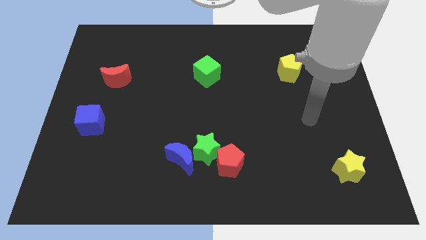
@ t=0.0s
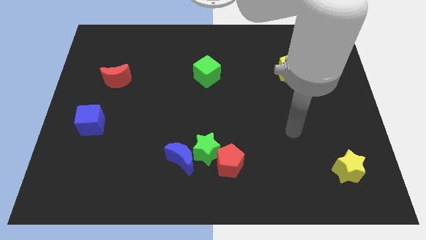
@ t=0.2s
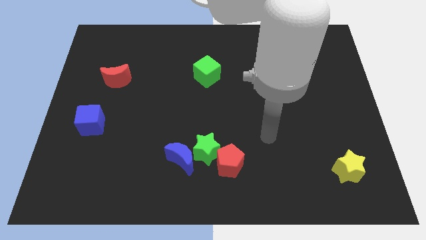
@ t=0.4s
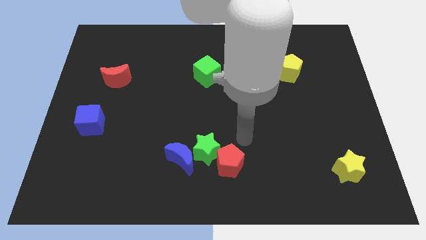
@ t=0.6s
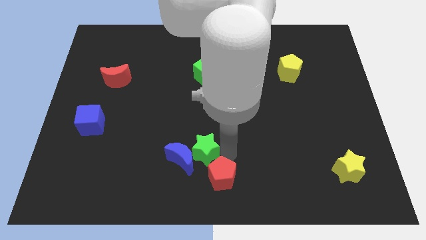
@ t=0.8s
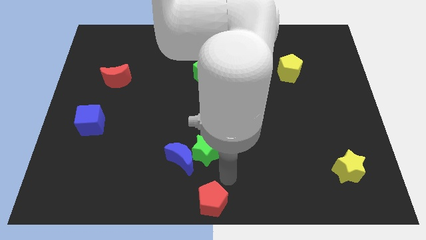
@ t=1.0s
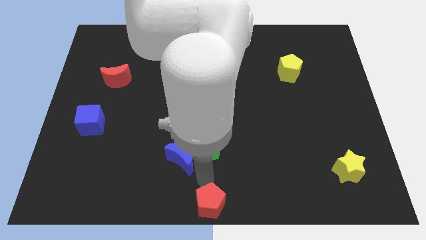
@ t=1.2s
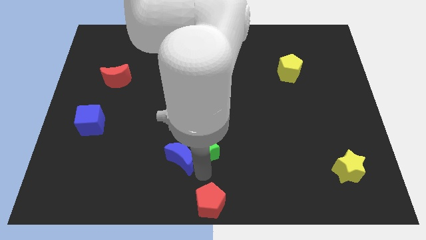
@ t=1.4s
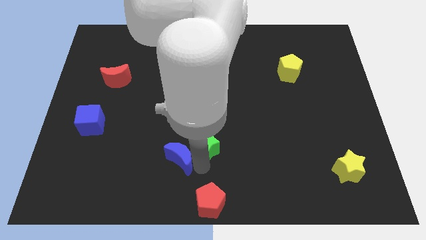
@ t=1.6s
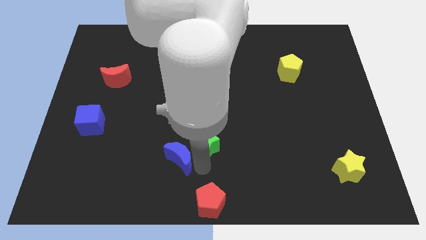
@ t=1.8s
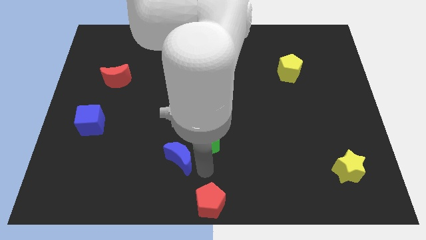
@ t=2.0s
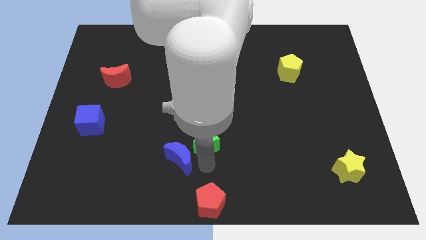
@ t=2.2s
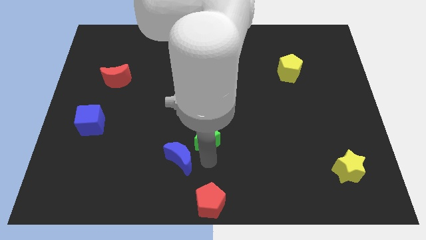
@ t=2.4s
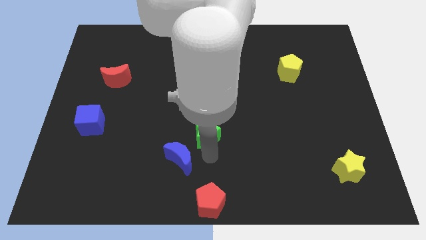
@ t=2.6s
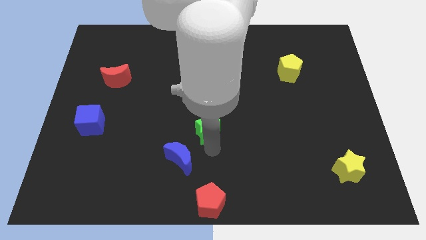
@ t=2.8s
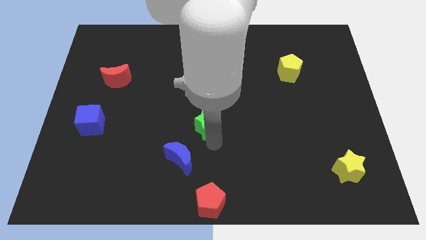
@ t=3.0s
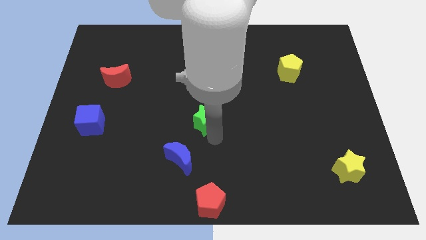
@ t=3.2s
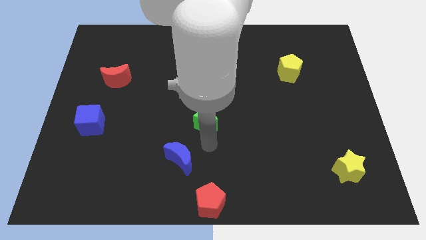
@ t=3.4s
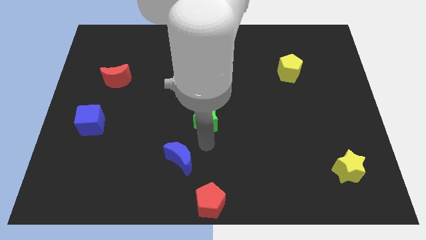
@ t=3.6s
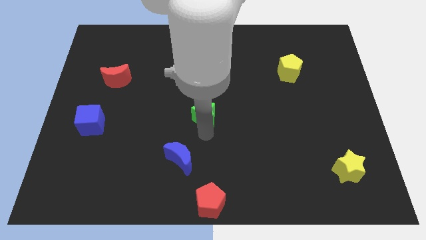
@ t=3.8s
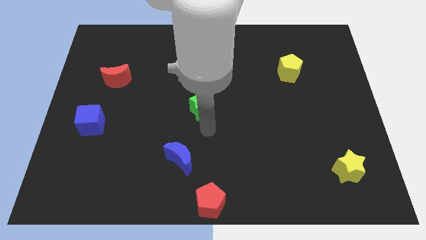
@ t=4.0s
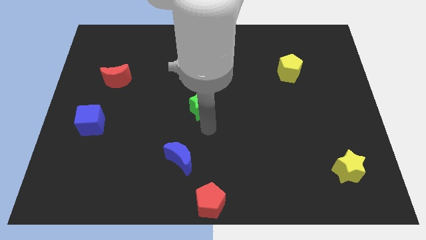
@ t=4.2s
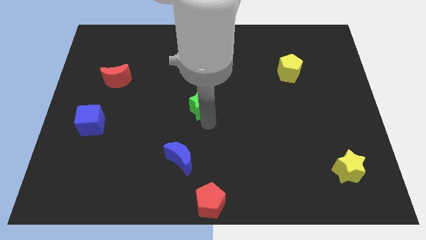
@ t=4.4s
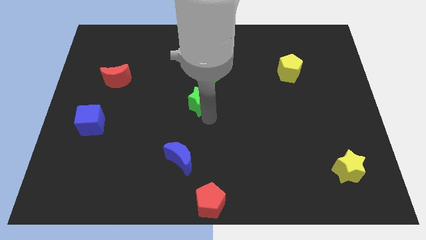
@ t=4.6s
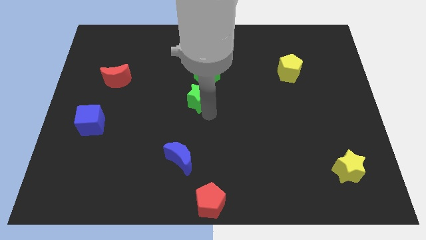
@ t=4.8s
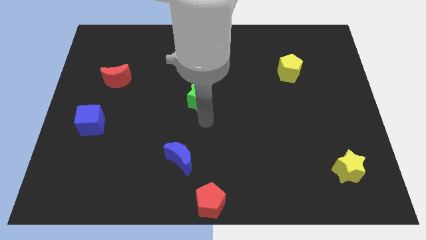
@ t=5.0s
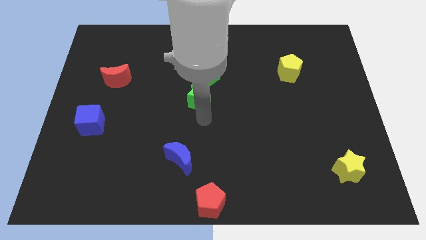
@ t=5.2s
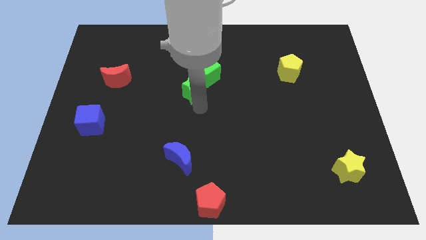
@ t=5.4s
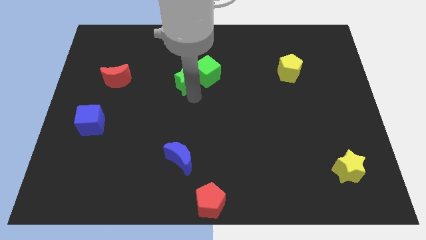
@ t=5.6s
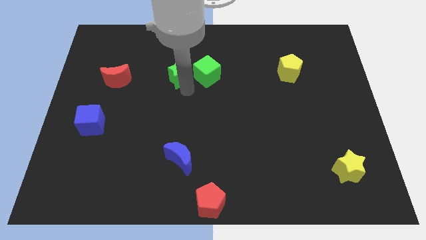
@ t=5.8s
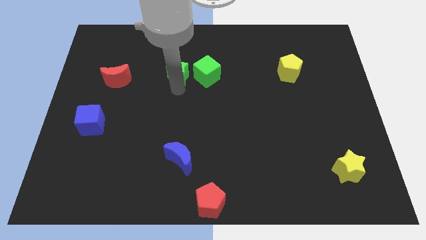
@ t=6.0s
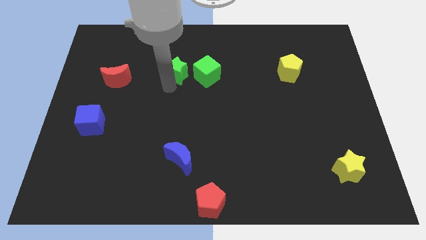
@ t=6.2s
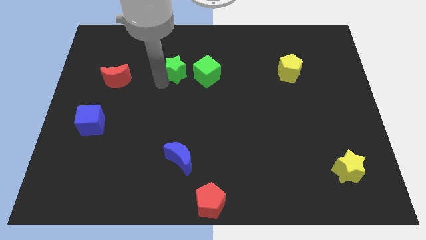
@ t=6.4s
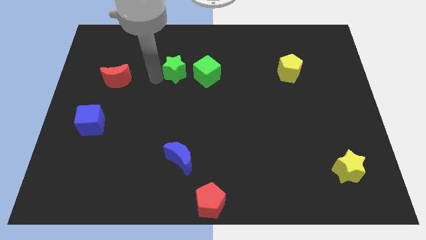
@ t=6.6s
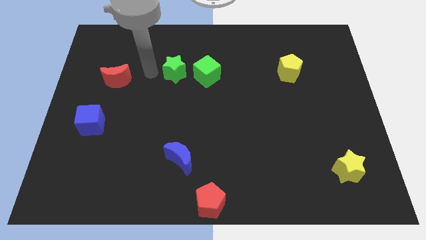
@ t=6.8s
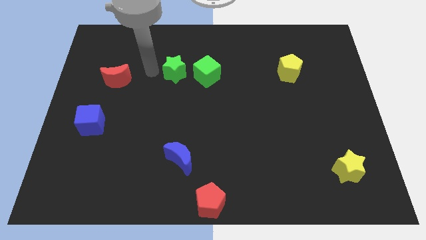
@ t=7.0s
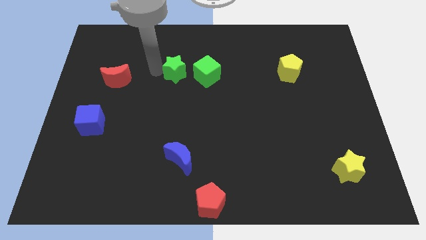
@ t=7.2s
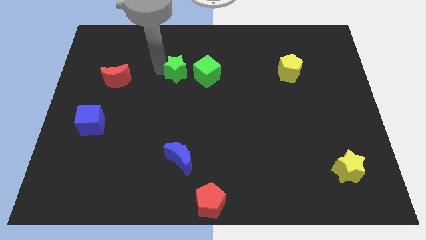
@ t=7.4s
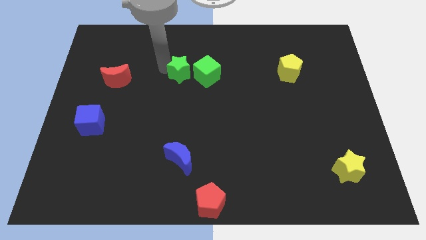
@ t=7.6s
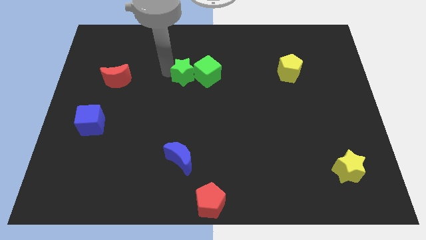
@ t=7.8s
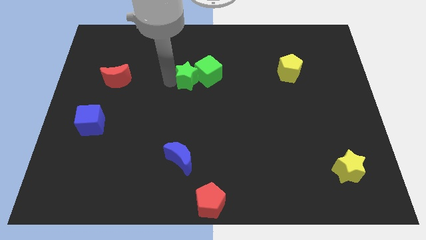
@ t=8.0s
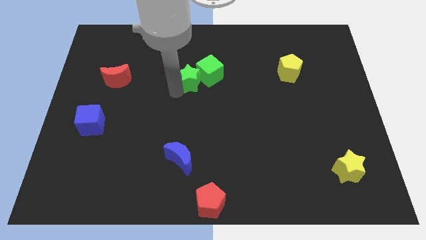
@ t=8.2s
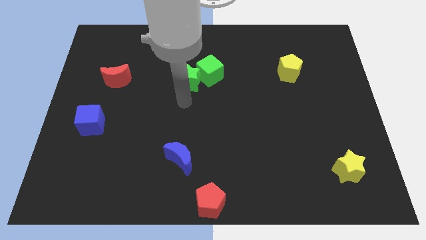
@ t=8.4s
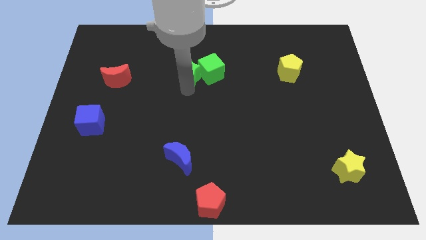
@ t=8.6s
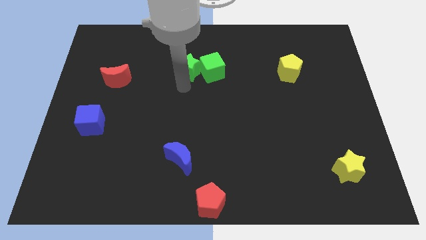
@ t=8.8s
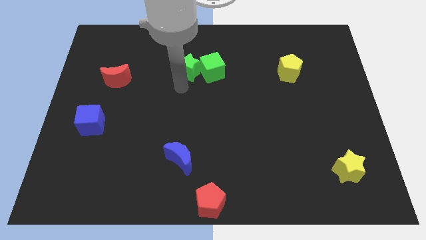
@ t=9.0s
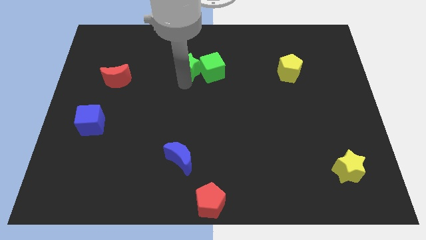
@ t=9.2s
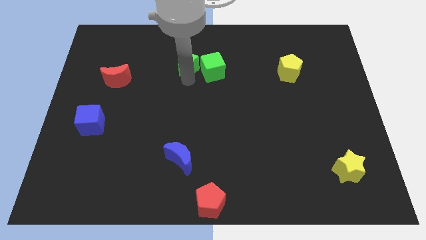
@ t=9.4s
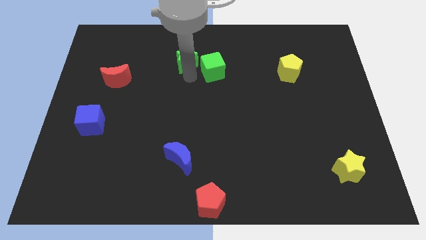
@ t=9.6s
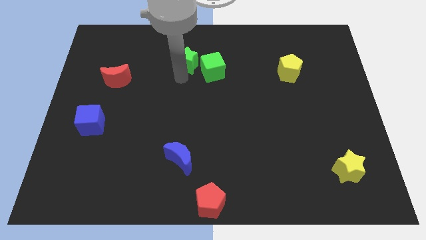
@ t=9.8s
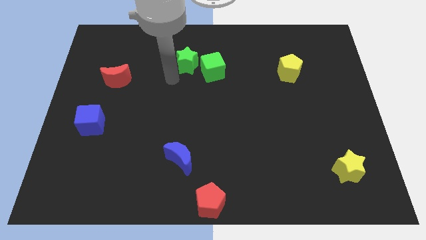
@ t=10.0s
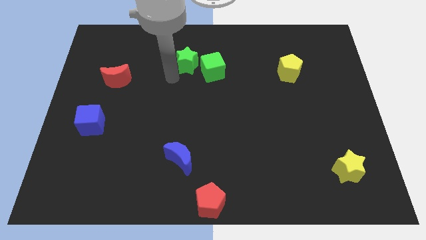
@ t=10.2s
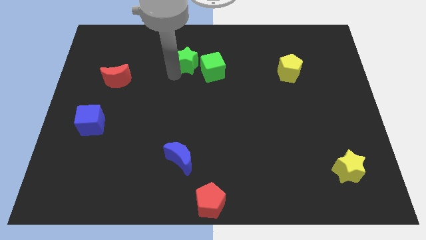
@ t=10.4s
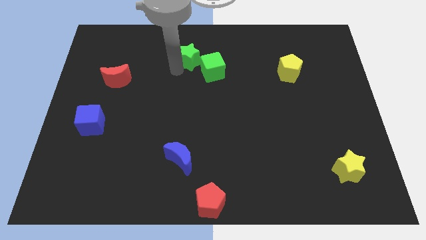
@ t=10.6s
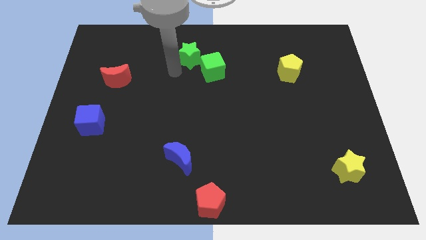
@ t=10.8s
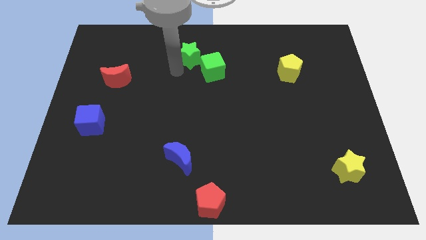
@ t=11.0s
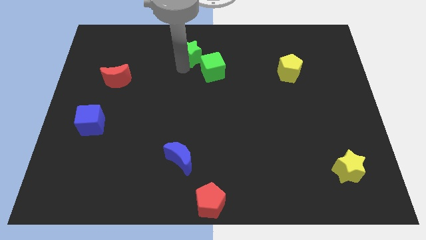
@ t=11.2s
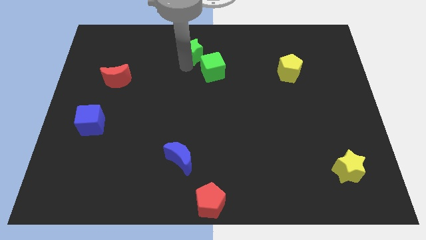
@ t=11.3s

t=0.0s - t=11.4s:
slide the green star to the top side

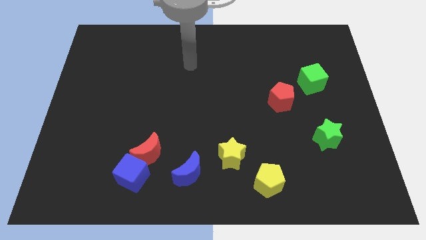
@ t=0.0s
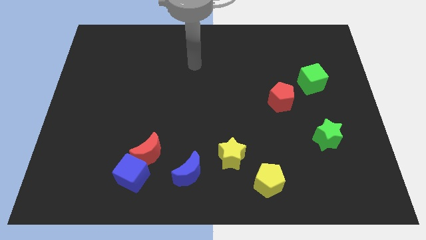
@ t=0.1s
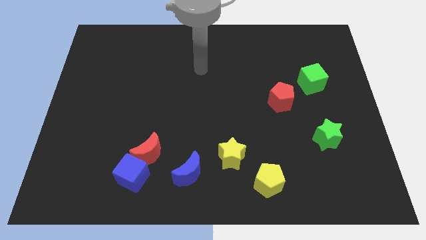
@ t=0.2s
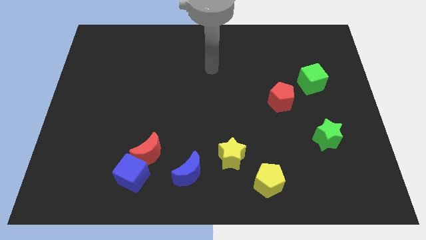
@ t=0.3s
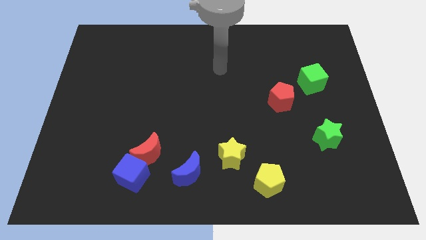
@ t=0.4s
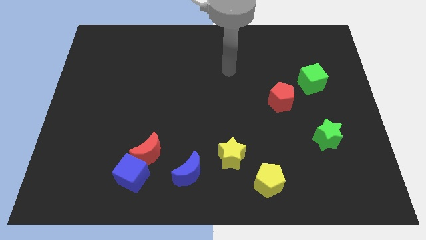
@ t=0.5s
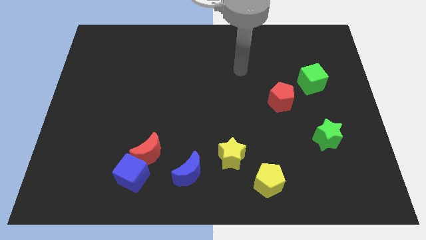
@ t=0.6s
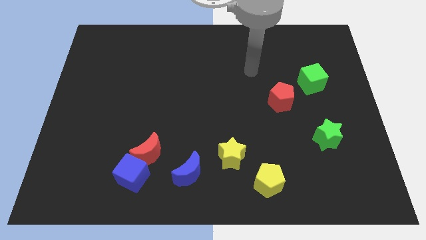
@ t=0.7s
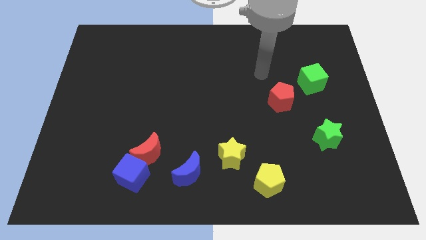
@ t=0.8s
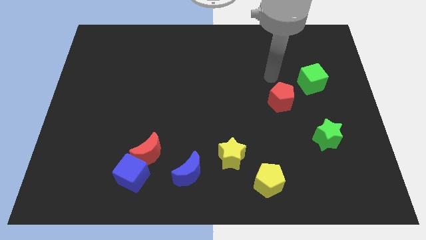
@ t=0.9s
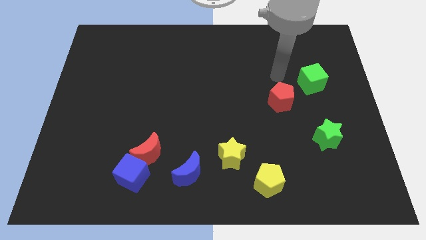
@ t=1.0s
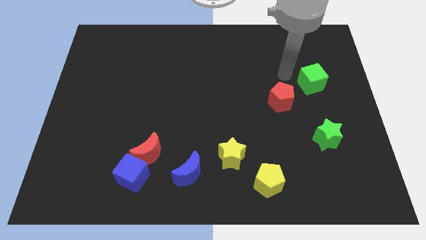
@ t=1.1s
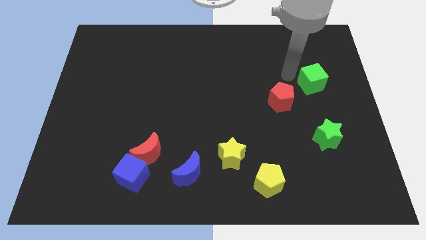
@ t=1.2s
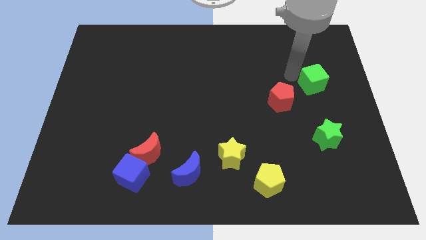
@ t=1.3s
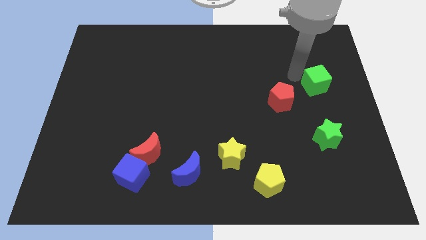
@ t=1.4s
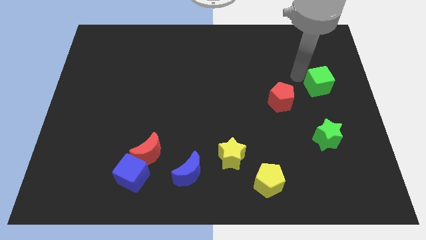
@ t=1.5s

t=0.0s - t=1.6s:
push the green cube to the center right
